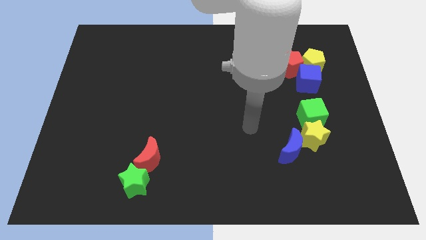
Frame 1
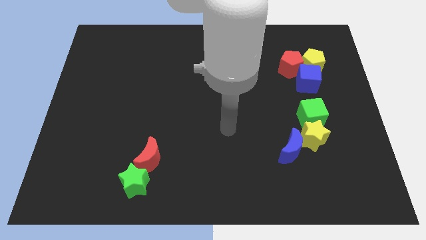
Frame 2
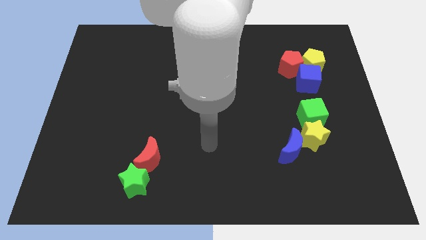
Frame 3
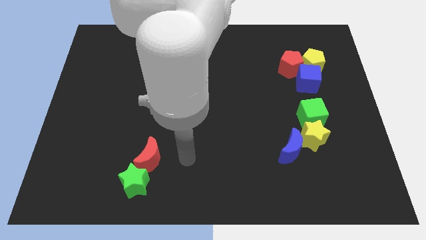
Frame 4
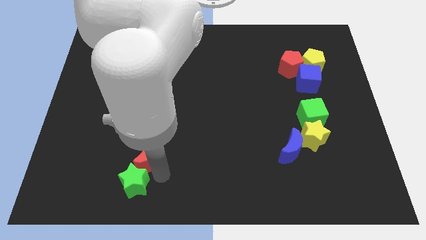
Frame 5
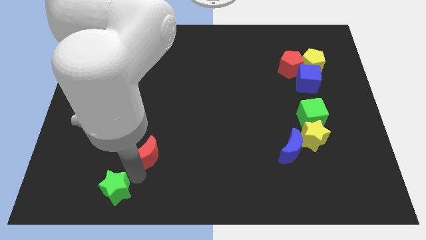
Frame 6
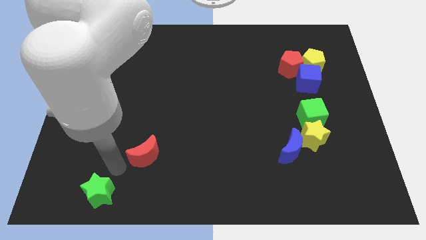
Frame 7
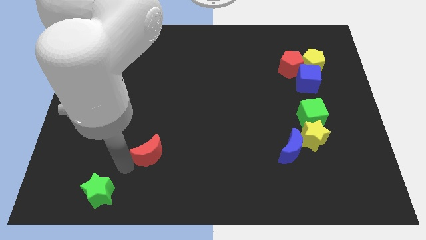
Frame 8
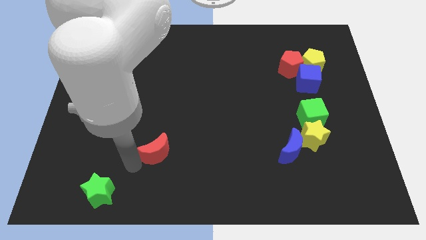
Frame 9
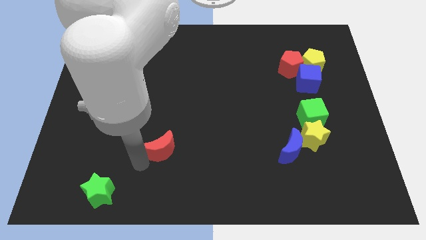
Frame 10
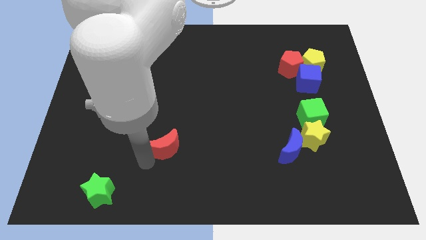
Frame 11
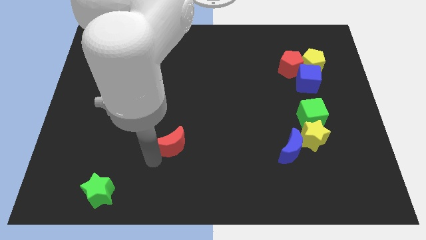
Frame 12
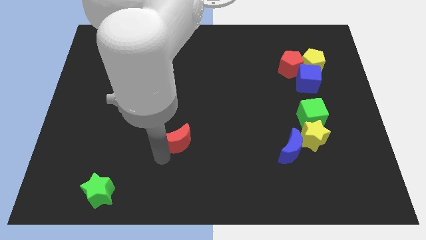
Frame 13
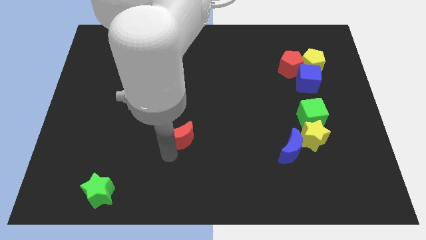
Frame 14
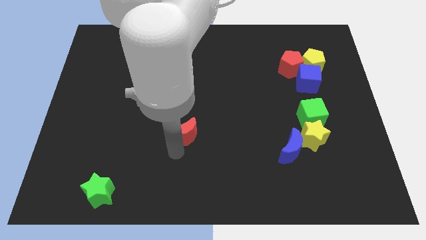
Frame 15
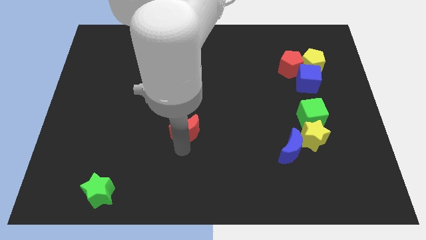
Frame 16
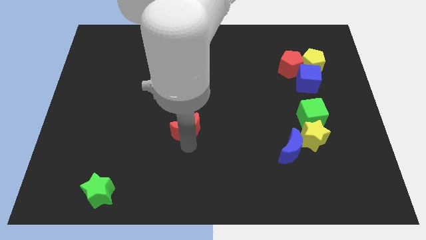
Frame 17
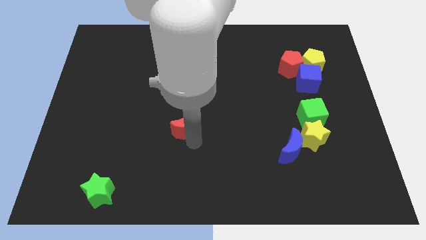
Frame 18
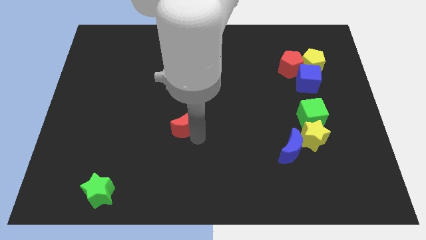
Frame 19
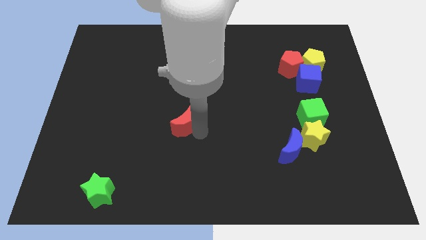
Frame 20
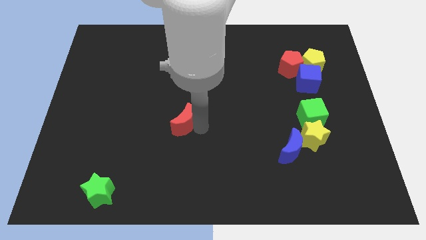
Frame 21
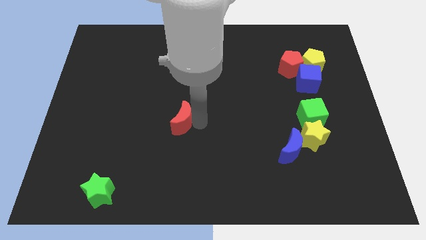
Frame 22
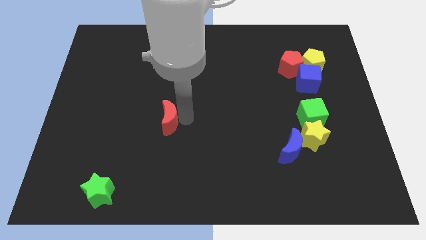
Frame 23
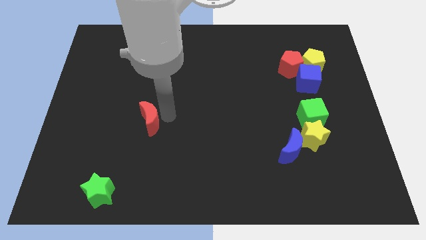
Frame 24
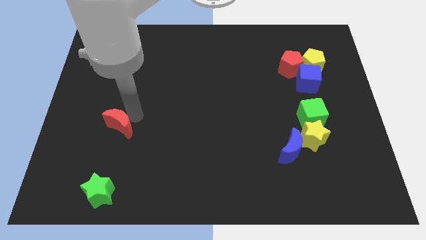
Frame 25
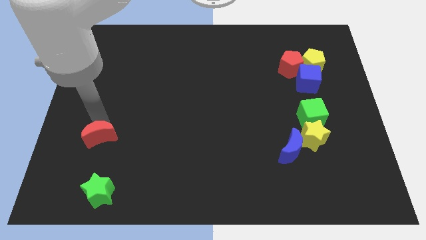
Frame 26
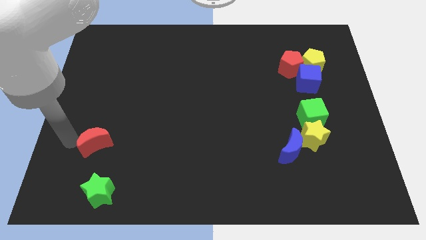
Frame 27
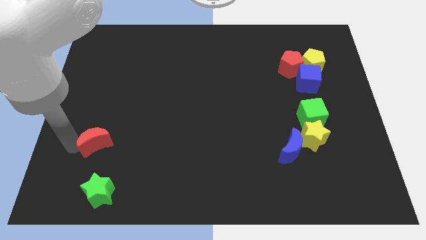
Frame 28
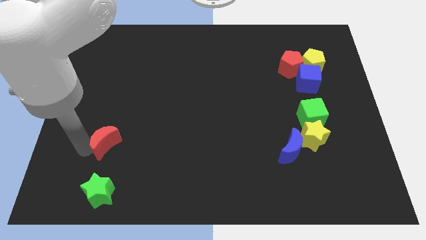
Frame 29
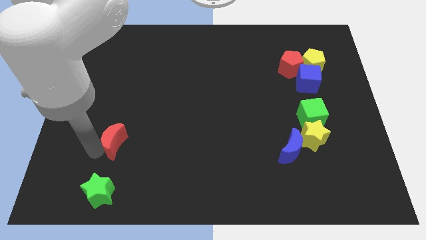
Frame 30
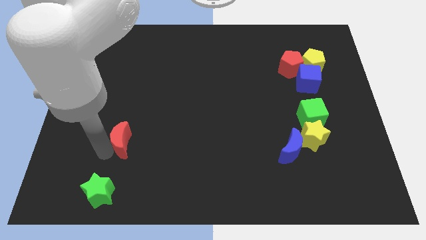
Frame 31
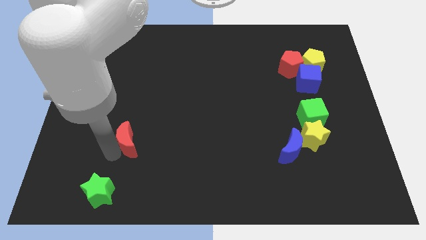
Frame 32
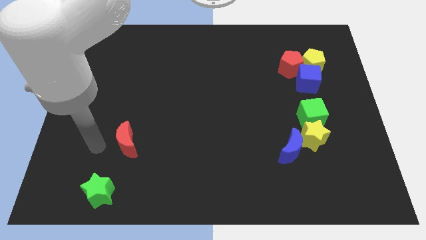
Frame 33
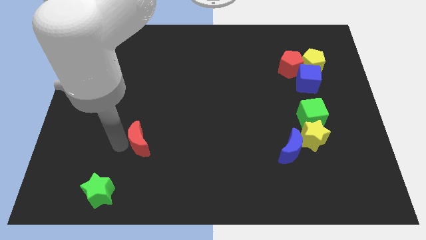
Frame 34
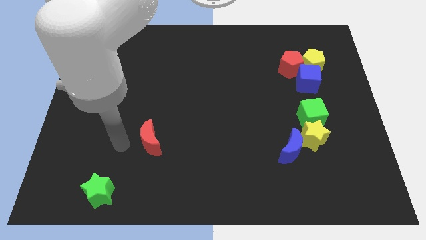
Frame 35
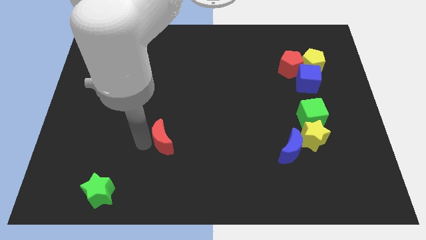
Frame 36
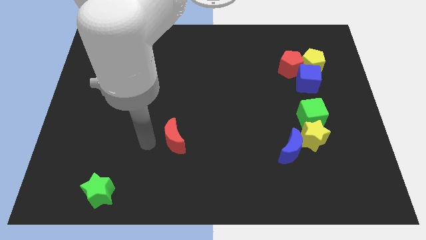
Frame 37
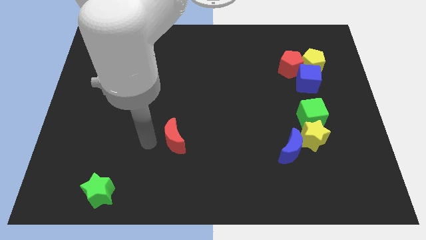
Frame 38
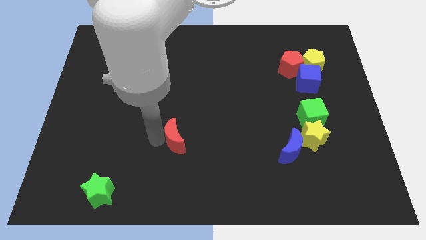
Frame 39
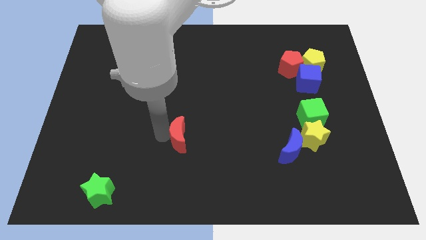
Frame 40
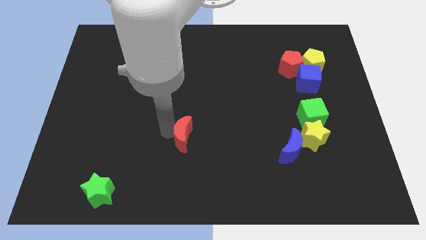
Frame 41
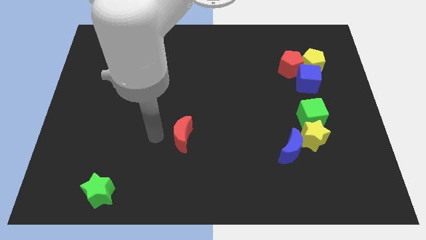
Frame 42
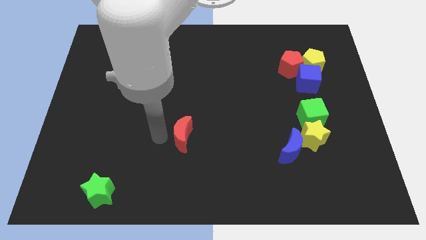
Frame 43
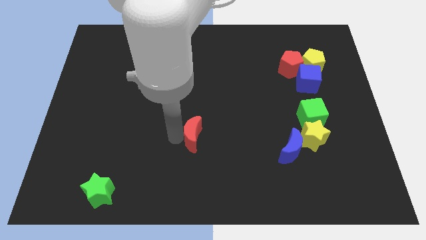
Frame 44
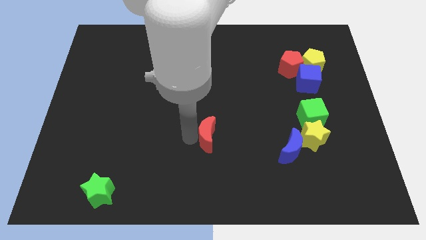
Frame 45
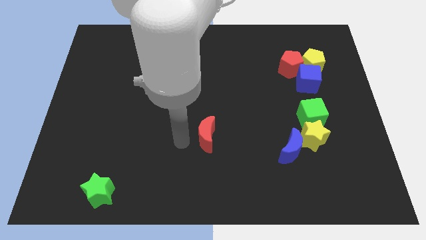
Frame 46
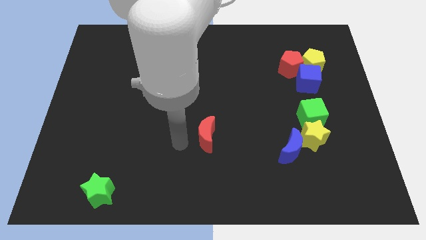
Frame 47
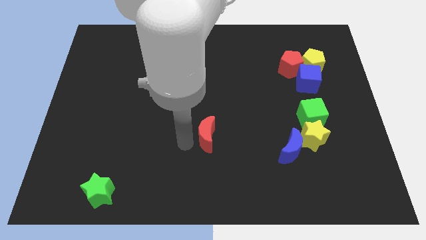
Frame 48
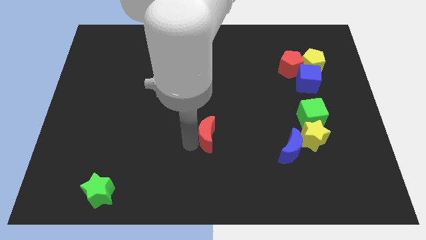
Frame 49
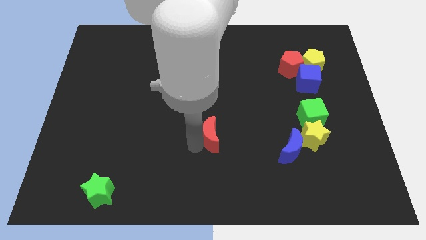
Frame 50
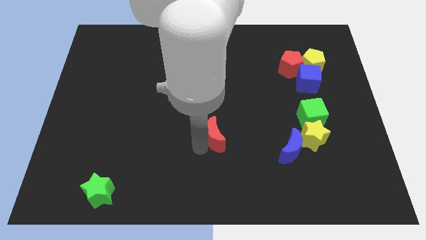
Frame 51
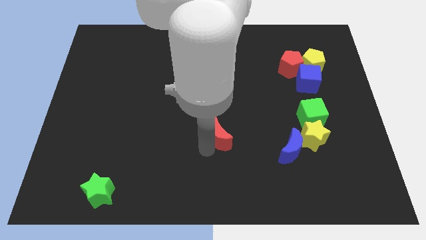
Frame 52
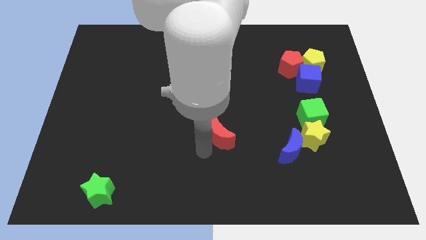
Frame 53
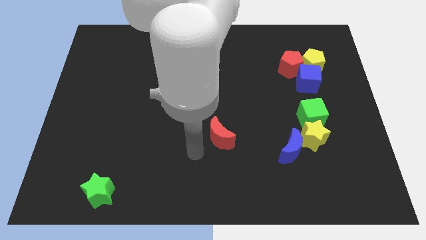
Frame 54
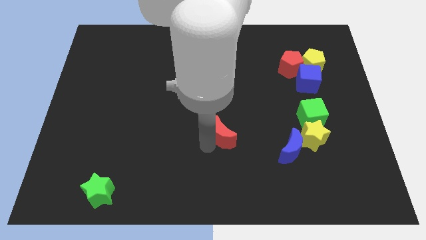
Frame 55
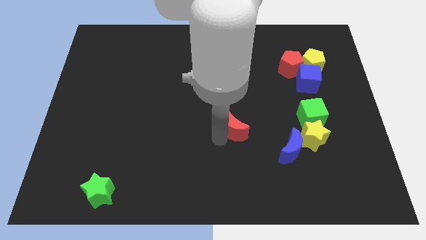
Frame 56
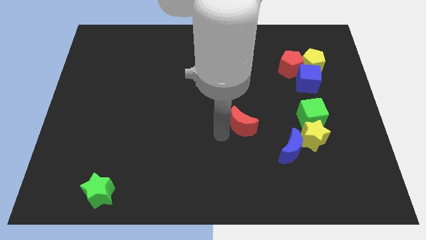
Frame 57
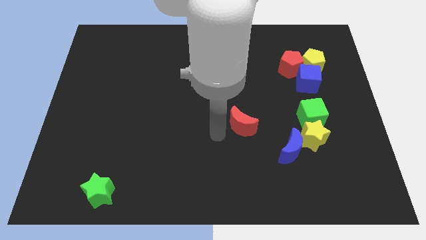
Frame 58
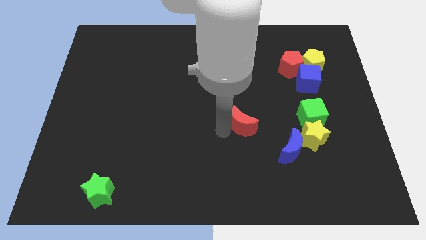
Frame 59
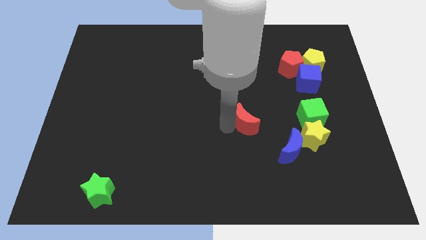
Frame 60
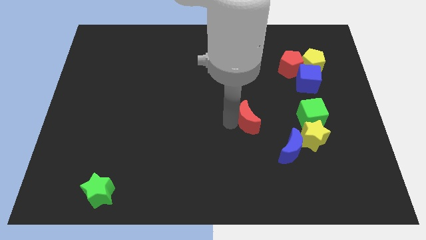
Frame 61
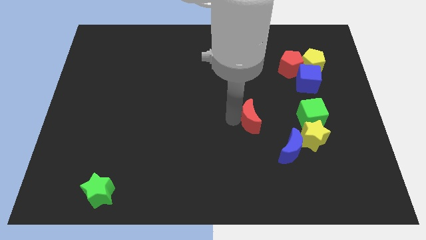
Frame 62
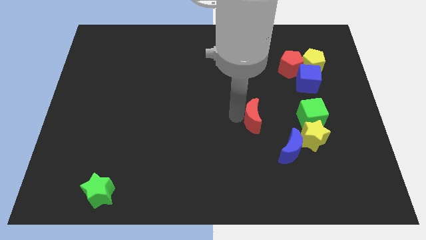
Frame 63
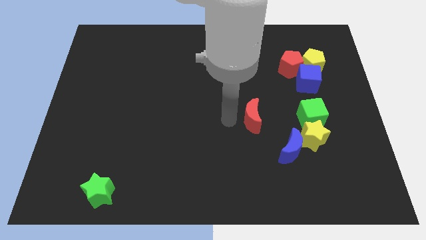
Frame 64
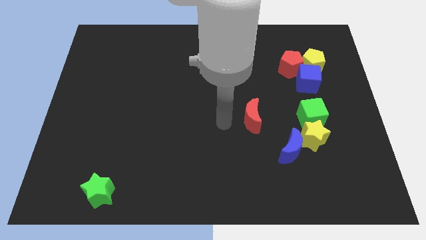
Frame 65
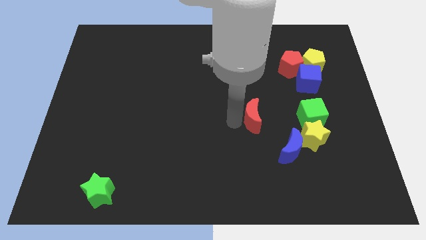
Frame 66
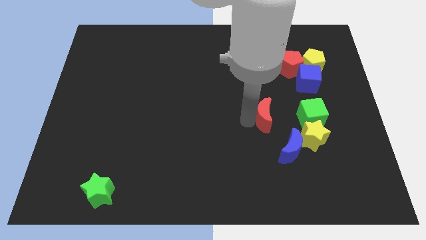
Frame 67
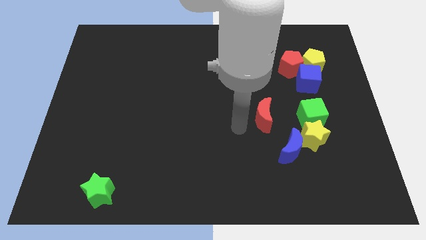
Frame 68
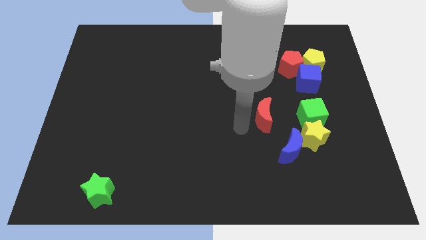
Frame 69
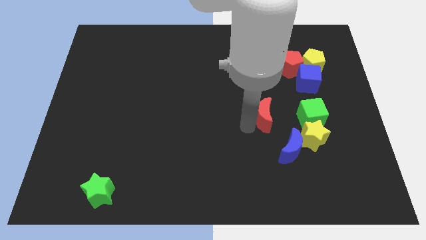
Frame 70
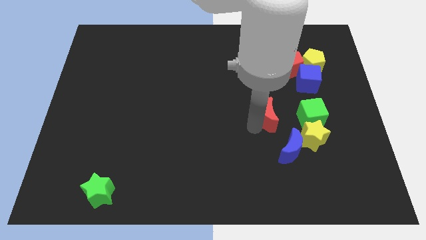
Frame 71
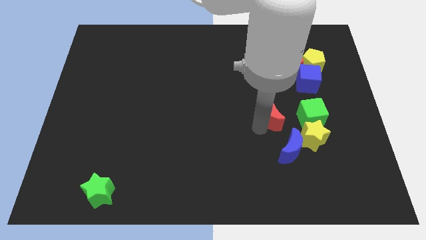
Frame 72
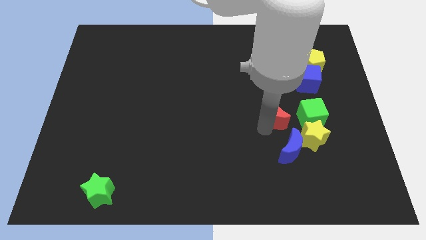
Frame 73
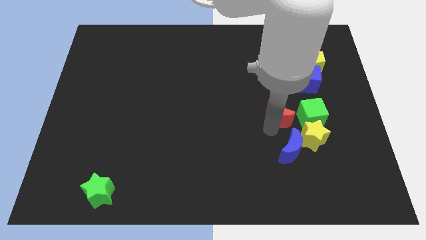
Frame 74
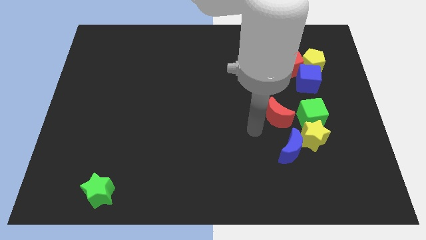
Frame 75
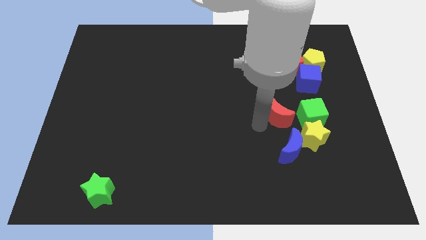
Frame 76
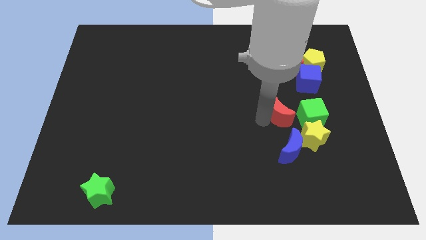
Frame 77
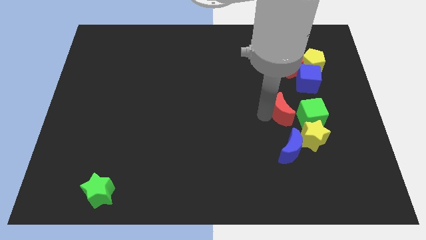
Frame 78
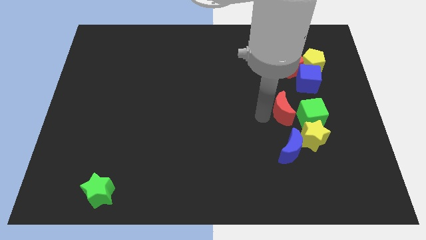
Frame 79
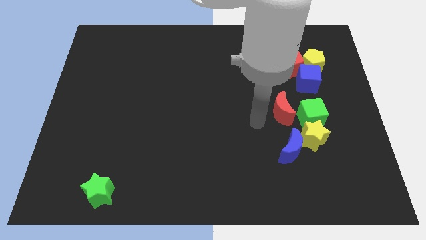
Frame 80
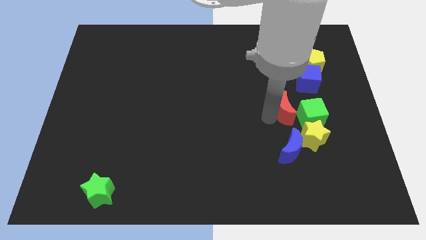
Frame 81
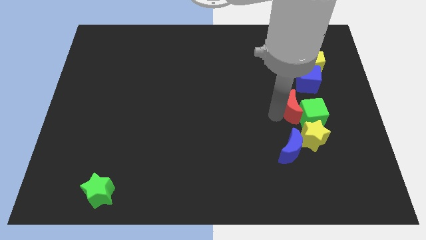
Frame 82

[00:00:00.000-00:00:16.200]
move the red moon to the top side of the yellow star
